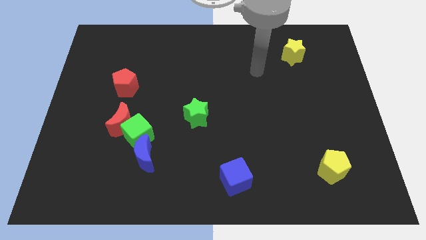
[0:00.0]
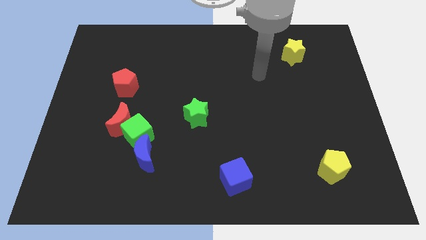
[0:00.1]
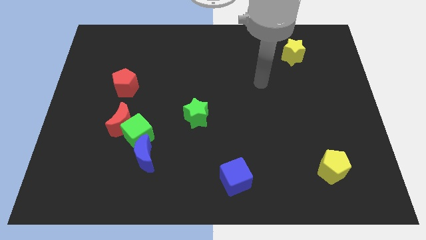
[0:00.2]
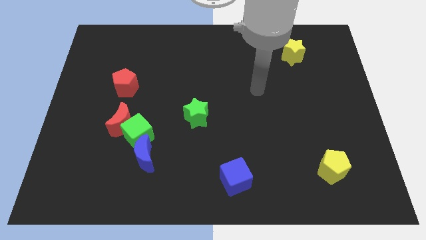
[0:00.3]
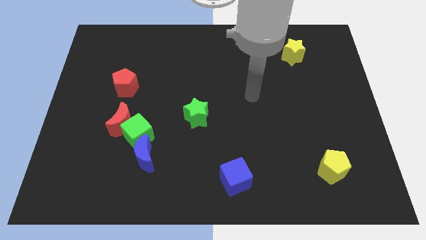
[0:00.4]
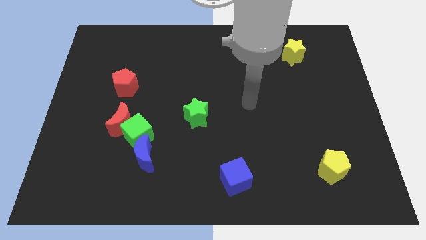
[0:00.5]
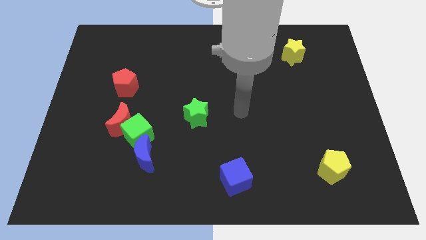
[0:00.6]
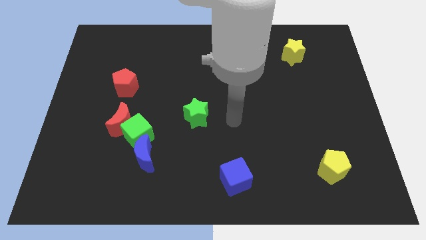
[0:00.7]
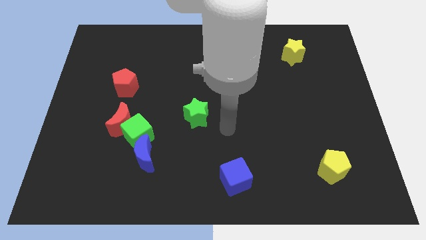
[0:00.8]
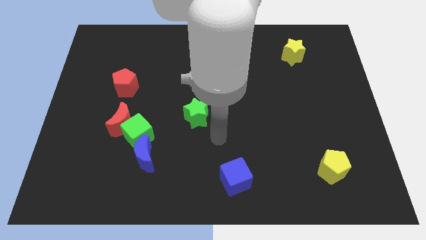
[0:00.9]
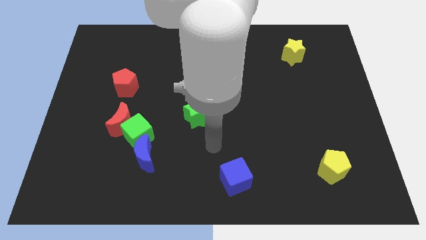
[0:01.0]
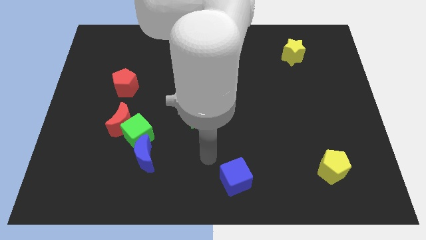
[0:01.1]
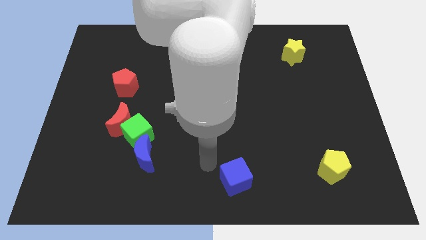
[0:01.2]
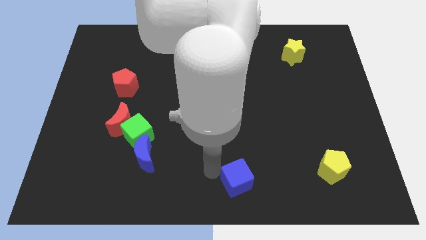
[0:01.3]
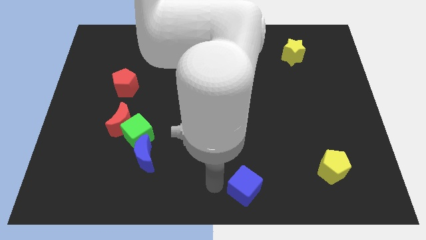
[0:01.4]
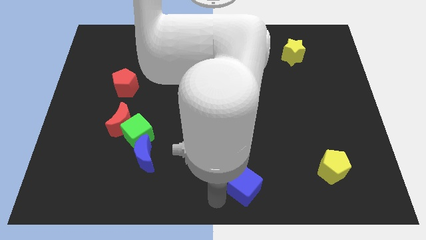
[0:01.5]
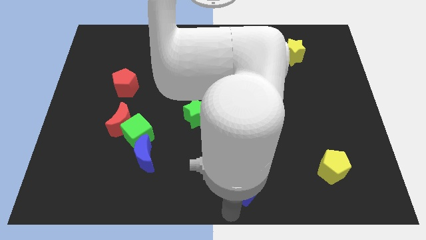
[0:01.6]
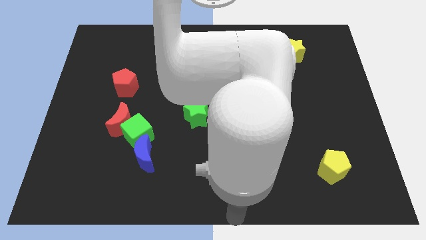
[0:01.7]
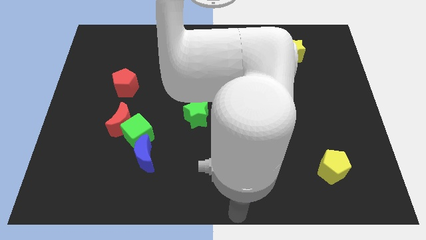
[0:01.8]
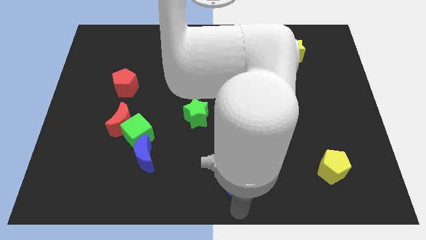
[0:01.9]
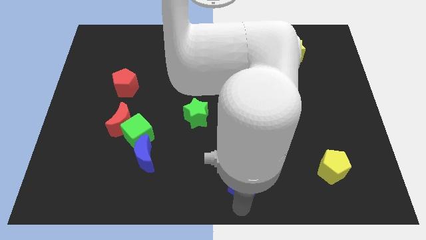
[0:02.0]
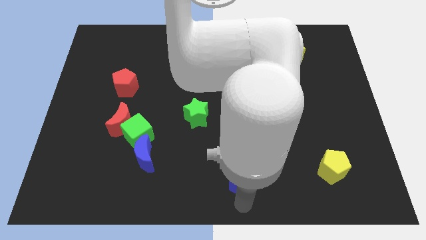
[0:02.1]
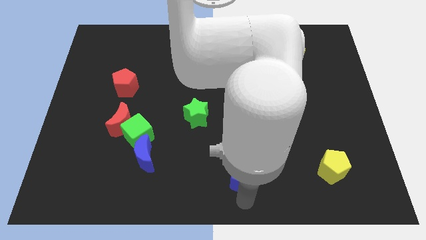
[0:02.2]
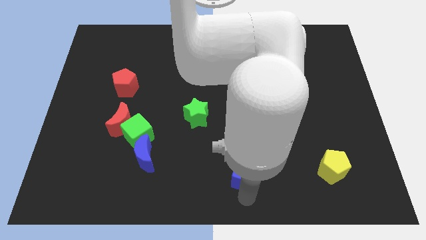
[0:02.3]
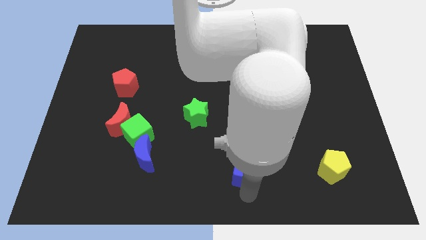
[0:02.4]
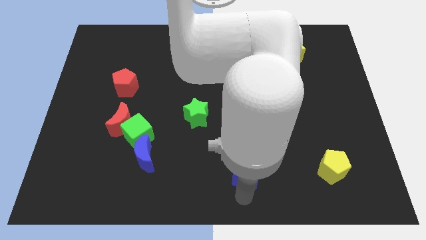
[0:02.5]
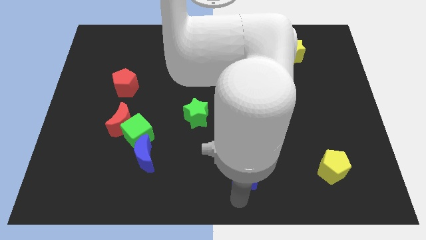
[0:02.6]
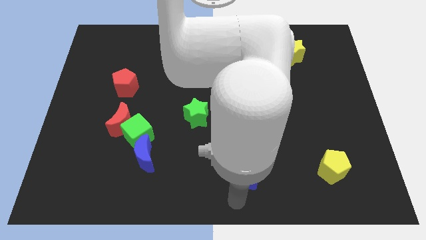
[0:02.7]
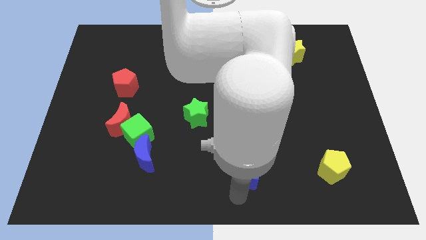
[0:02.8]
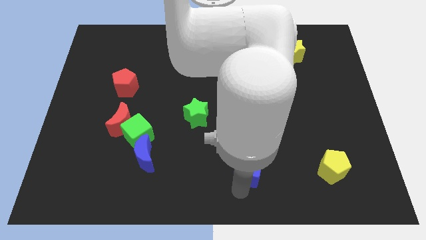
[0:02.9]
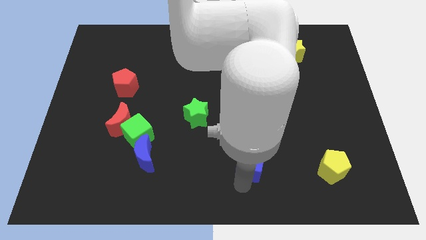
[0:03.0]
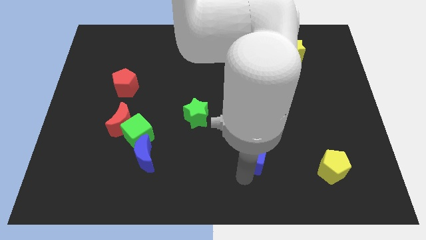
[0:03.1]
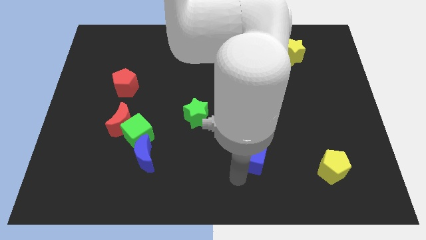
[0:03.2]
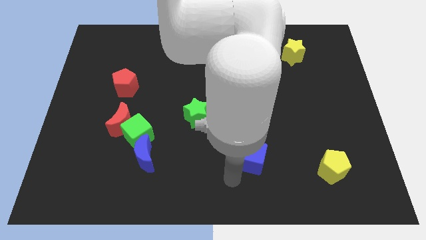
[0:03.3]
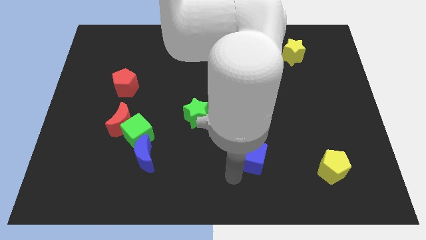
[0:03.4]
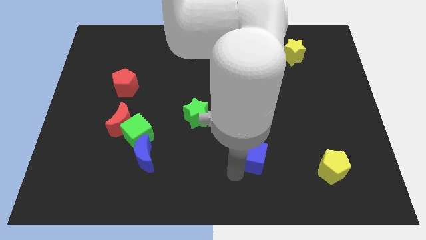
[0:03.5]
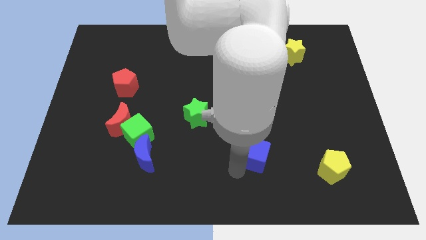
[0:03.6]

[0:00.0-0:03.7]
slide the blue cube upwards and right diagonally a bit

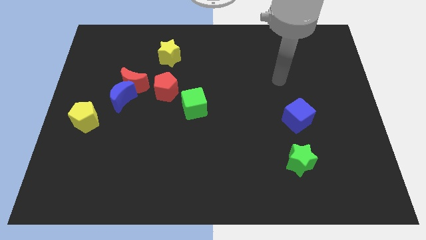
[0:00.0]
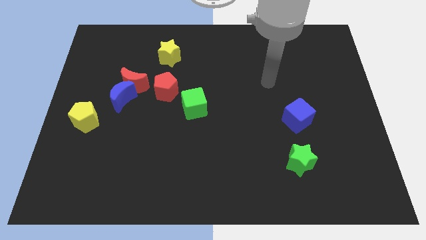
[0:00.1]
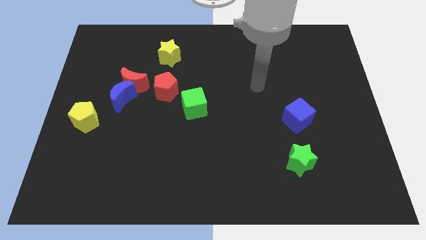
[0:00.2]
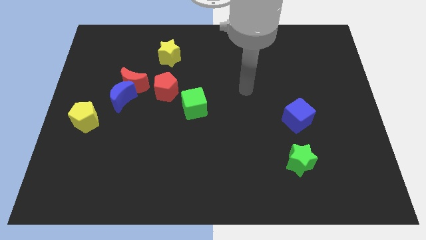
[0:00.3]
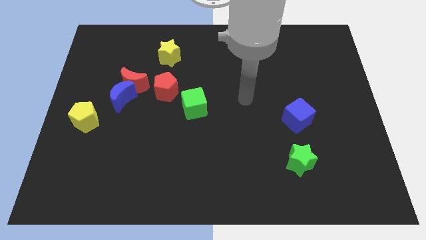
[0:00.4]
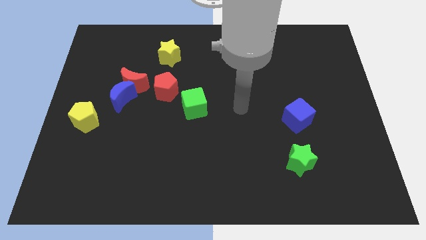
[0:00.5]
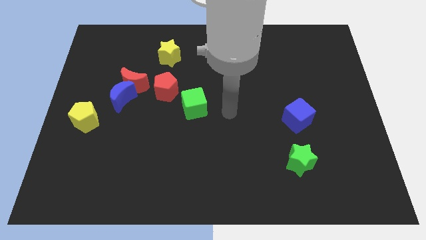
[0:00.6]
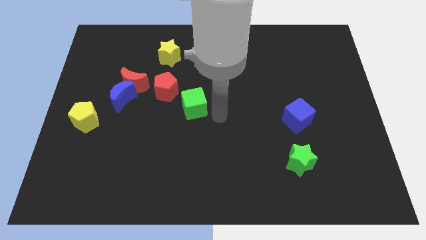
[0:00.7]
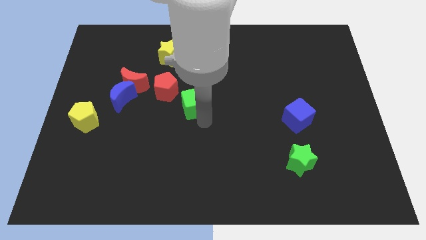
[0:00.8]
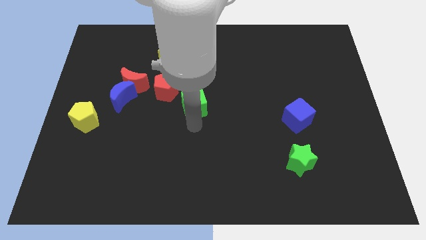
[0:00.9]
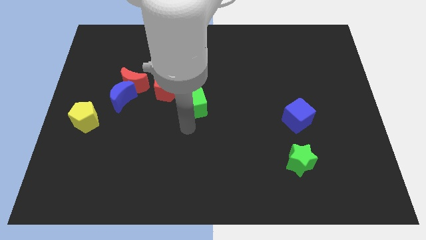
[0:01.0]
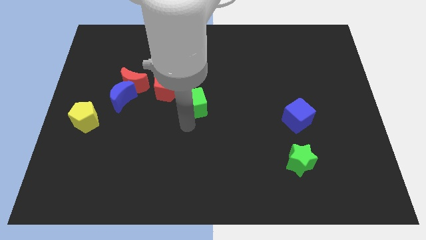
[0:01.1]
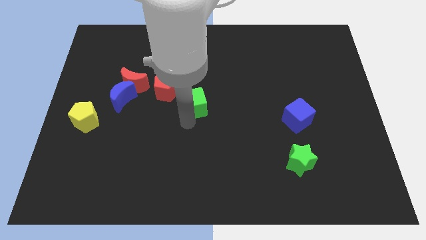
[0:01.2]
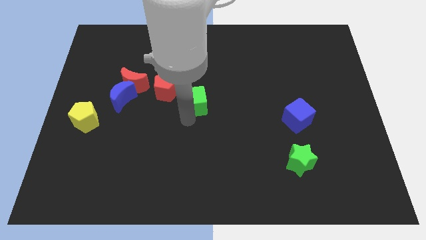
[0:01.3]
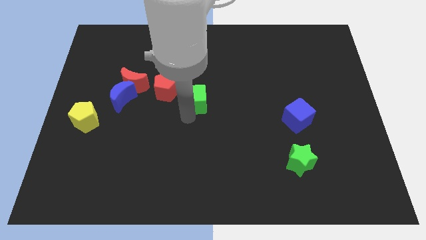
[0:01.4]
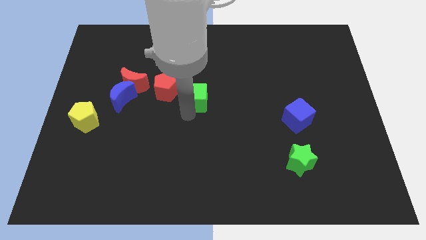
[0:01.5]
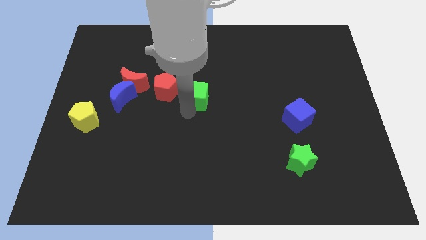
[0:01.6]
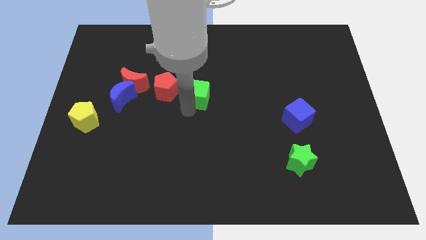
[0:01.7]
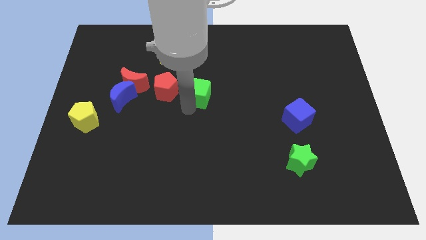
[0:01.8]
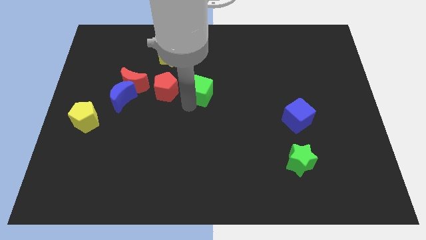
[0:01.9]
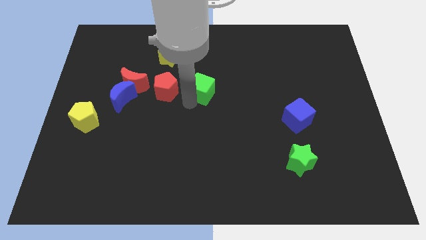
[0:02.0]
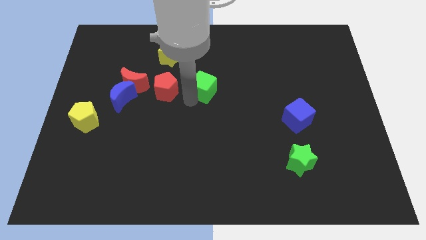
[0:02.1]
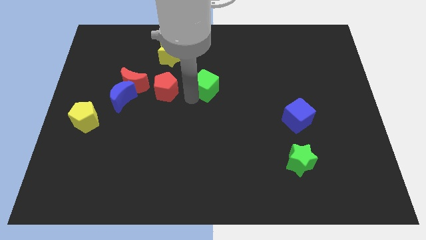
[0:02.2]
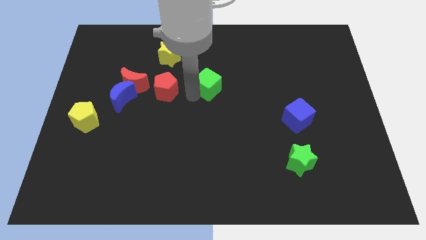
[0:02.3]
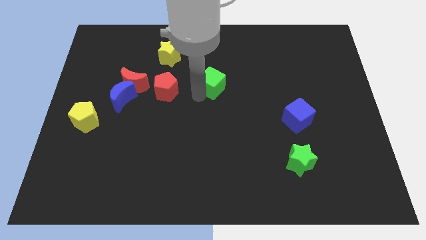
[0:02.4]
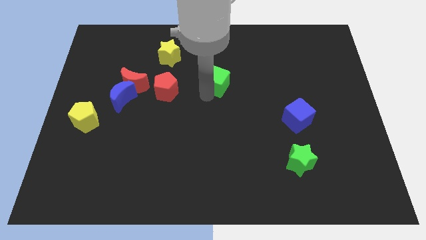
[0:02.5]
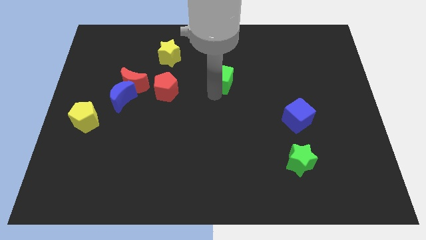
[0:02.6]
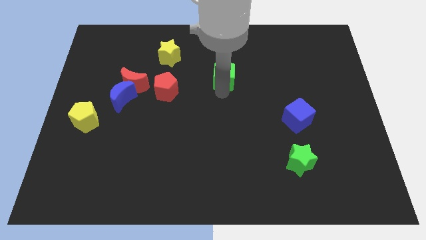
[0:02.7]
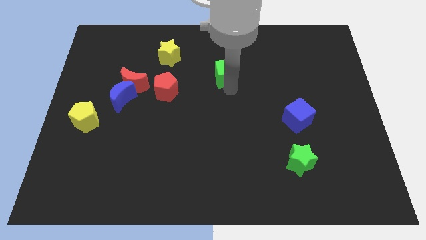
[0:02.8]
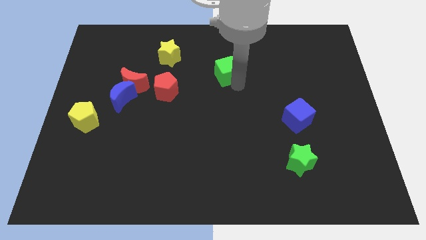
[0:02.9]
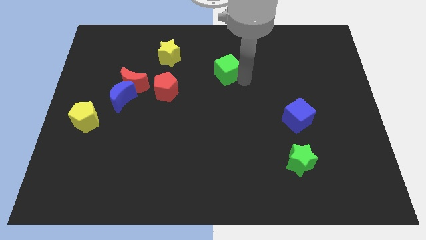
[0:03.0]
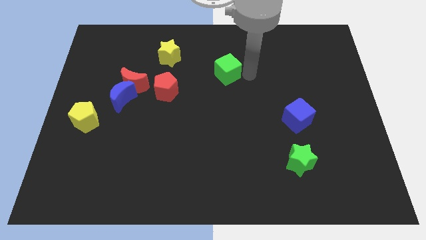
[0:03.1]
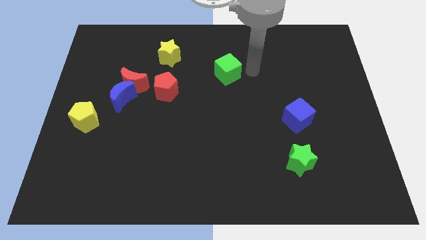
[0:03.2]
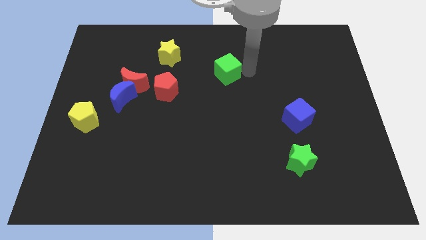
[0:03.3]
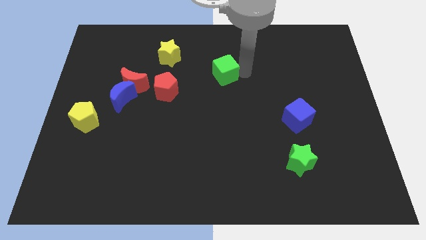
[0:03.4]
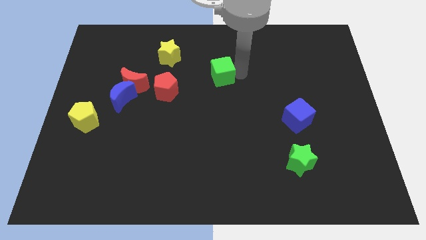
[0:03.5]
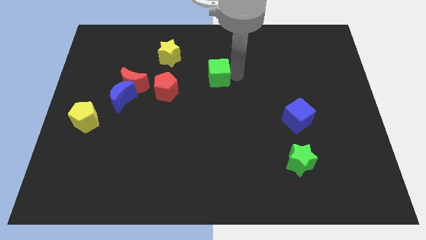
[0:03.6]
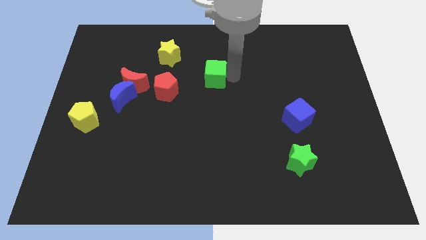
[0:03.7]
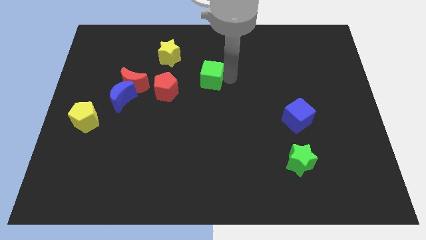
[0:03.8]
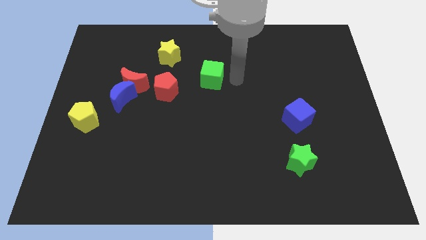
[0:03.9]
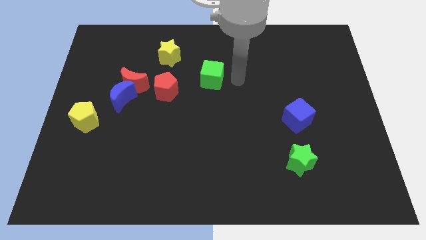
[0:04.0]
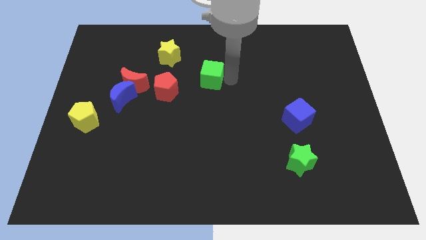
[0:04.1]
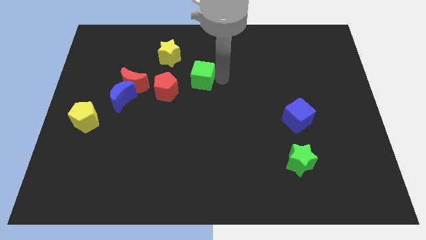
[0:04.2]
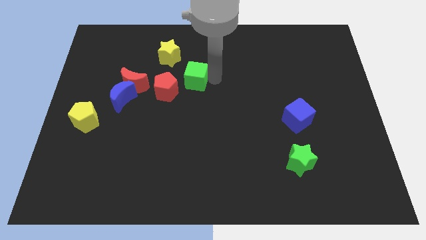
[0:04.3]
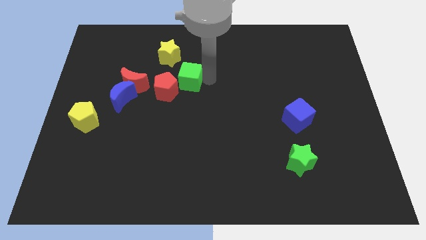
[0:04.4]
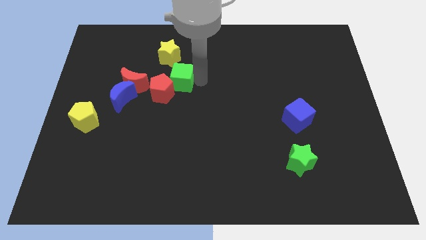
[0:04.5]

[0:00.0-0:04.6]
slightly slide the green cube upwards and then to the left
